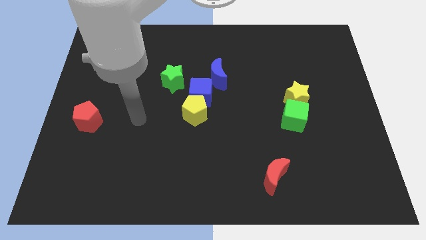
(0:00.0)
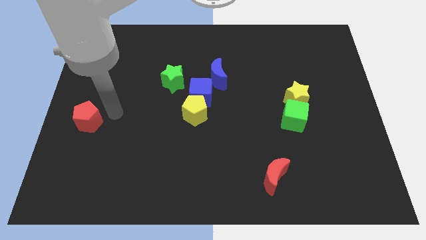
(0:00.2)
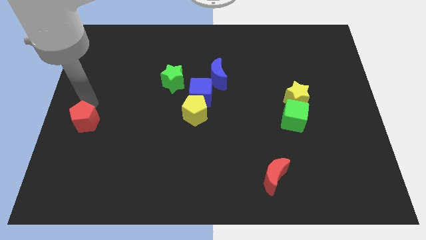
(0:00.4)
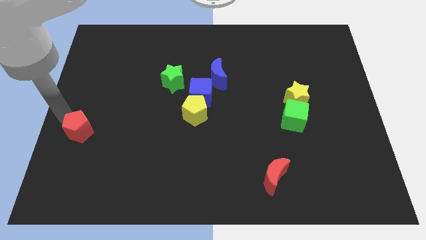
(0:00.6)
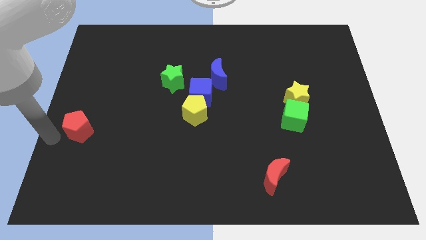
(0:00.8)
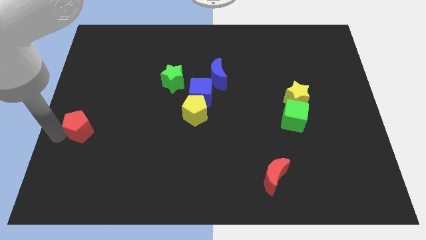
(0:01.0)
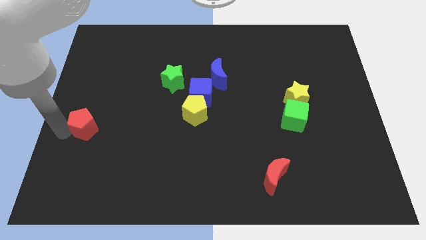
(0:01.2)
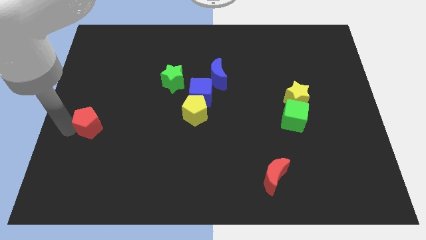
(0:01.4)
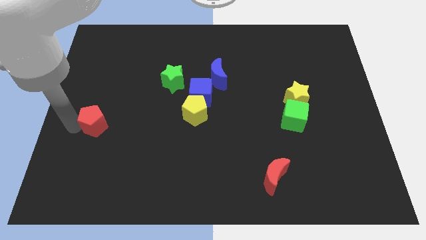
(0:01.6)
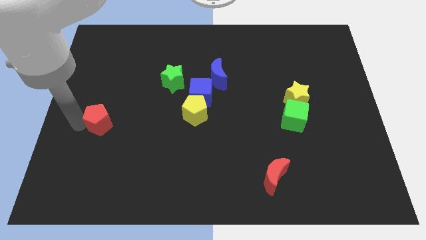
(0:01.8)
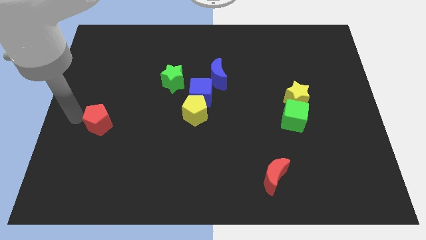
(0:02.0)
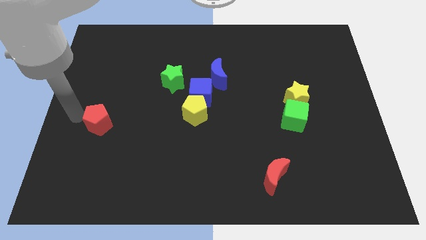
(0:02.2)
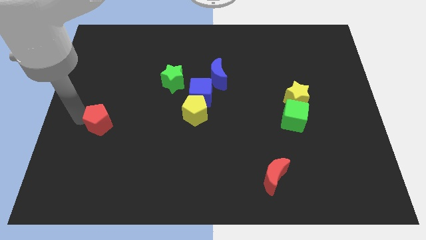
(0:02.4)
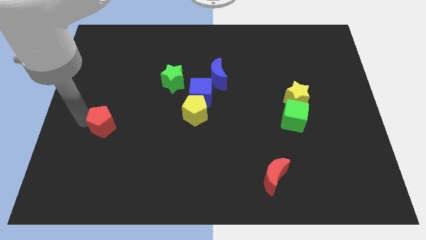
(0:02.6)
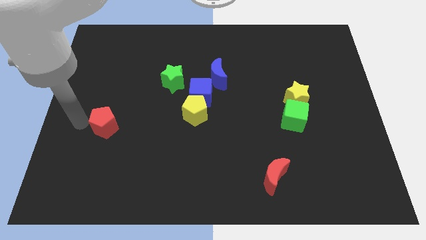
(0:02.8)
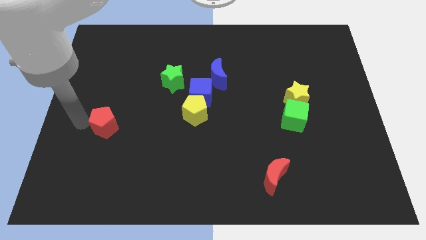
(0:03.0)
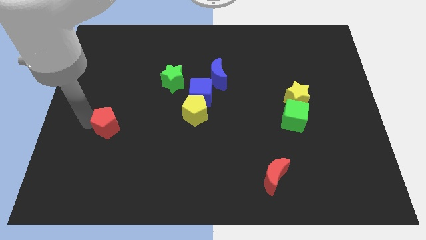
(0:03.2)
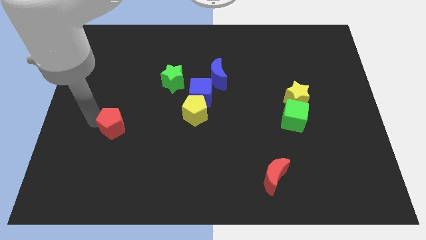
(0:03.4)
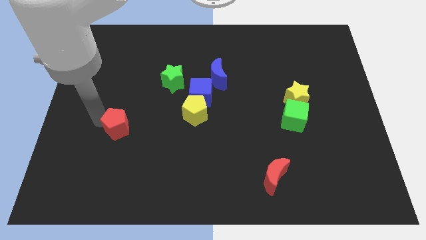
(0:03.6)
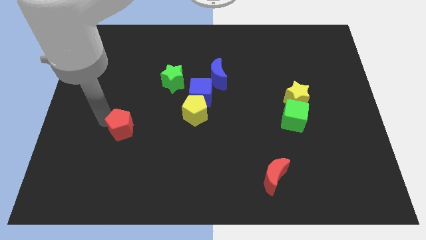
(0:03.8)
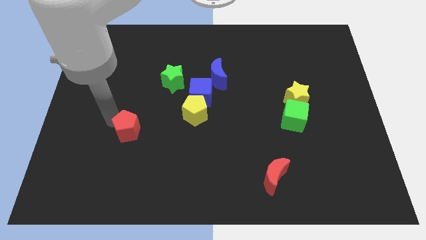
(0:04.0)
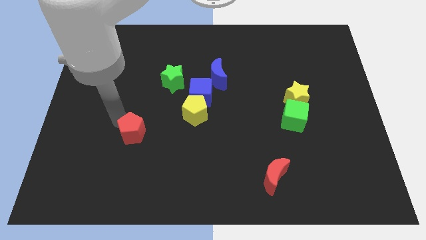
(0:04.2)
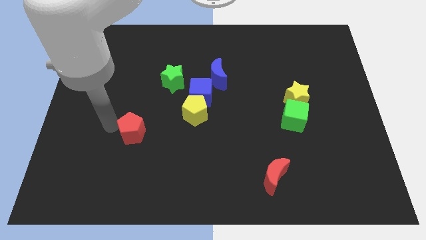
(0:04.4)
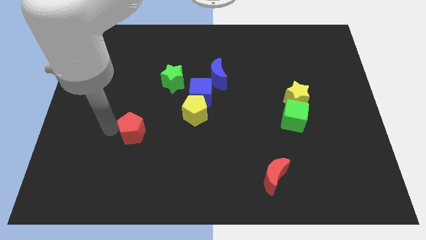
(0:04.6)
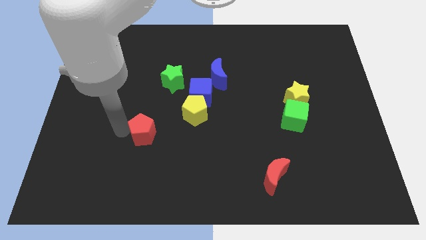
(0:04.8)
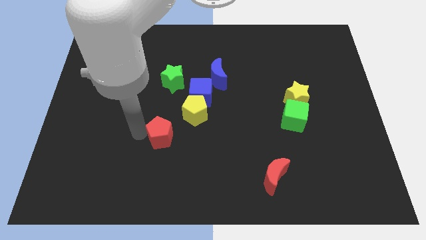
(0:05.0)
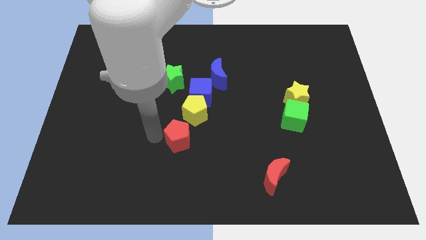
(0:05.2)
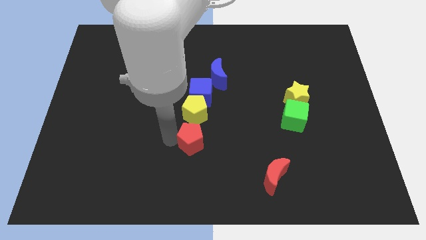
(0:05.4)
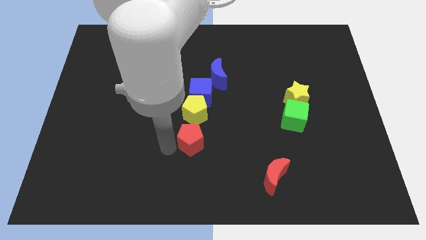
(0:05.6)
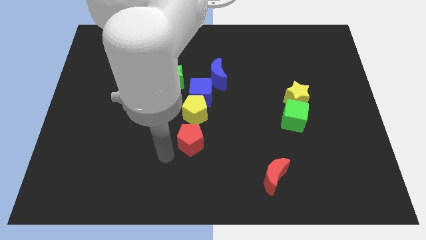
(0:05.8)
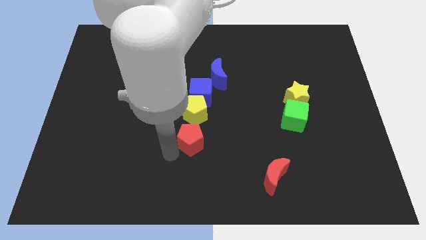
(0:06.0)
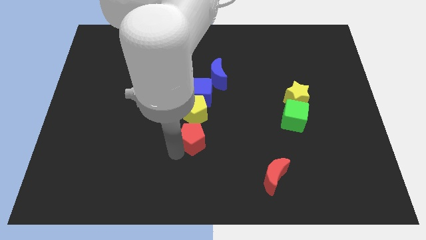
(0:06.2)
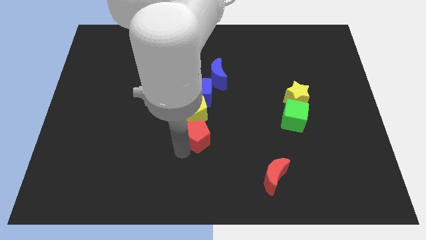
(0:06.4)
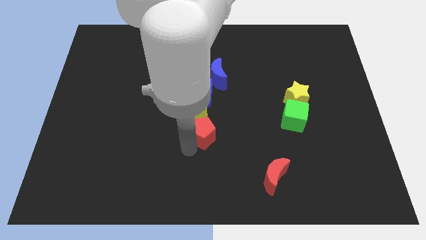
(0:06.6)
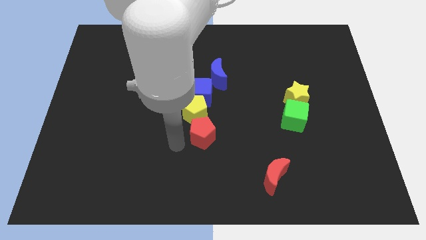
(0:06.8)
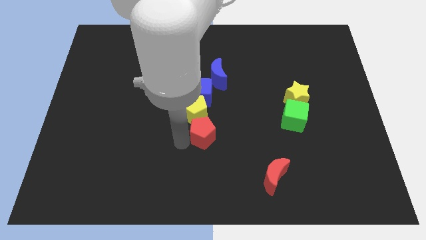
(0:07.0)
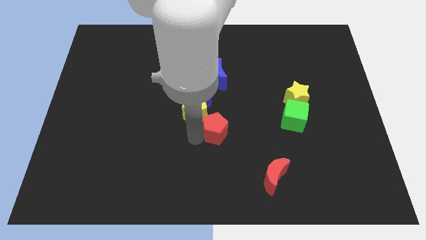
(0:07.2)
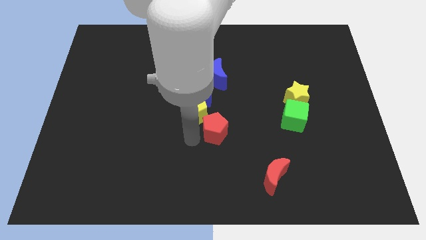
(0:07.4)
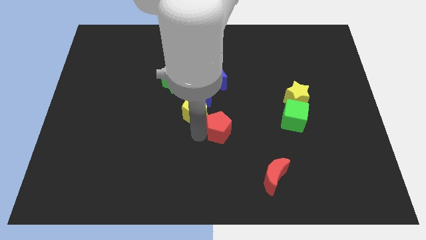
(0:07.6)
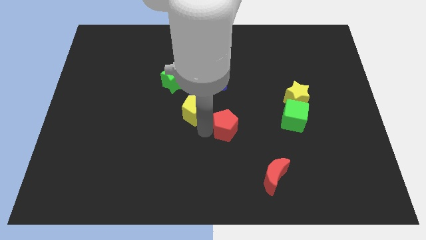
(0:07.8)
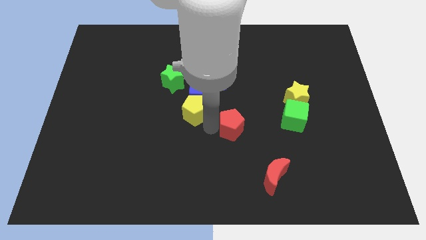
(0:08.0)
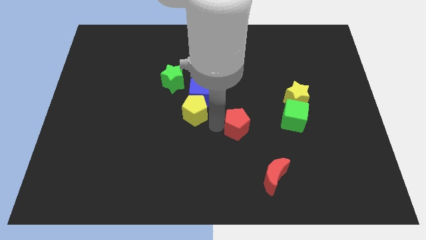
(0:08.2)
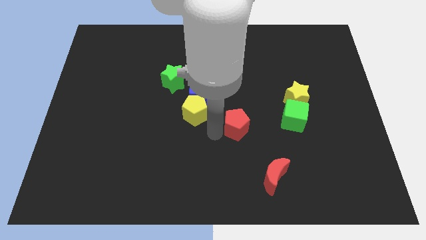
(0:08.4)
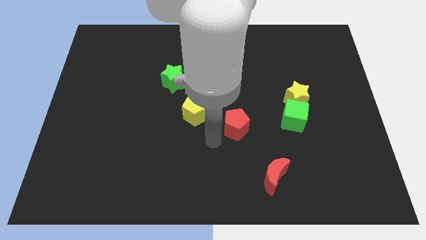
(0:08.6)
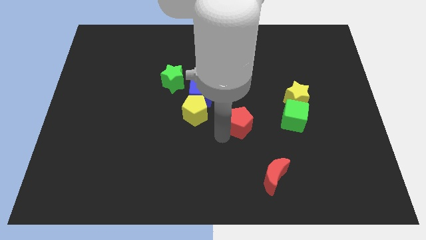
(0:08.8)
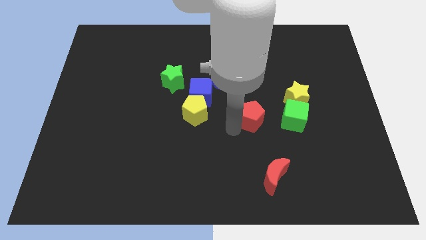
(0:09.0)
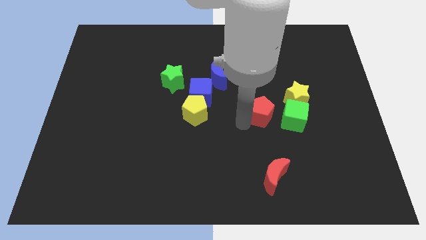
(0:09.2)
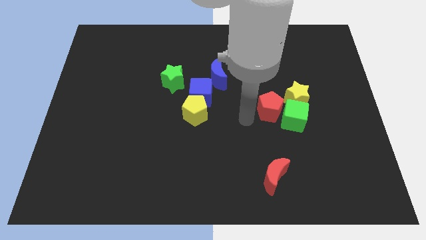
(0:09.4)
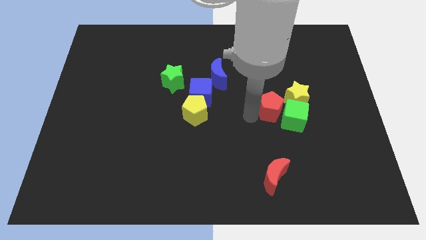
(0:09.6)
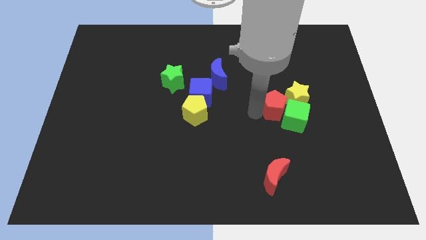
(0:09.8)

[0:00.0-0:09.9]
move the red pentagon towards the yellow star

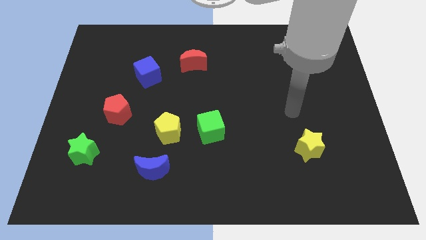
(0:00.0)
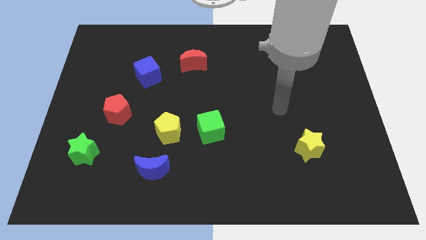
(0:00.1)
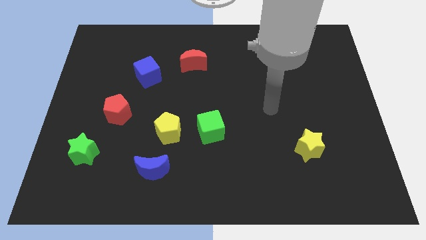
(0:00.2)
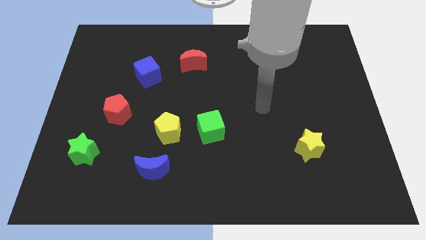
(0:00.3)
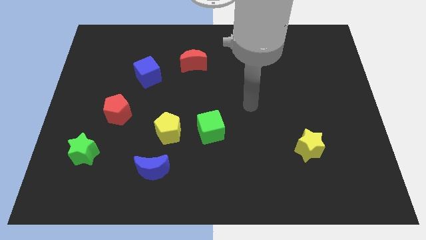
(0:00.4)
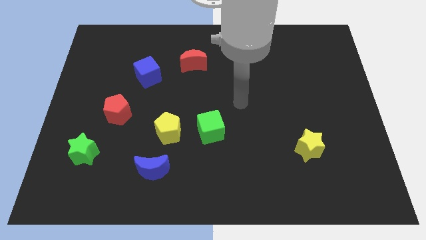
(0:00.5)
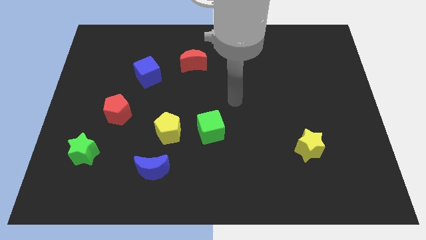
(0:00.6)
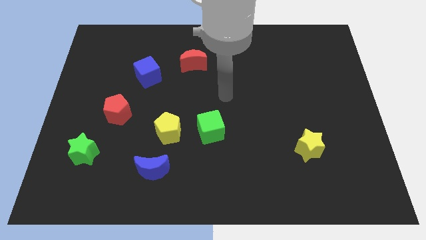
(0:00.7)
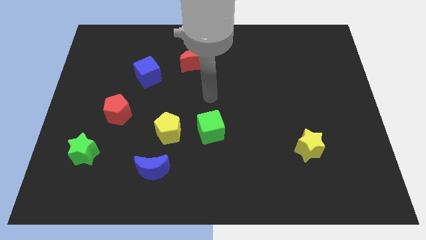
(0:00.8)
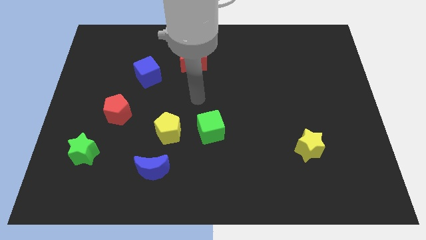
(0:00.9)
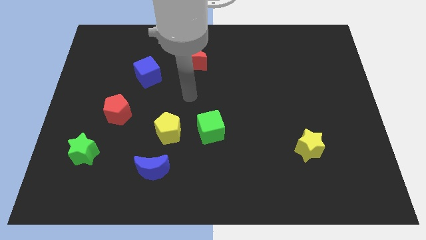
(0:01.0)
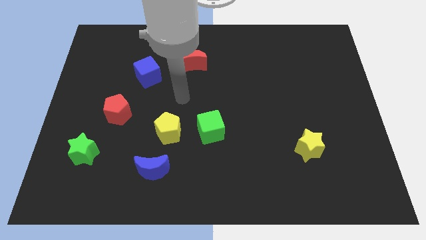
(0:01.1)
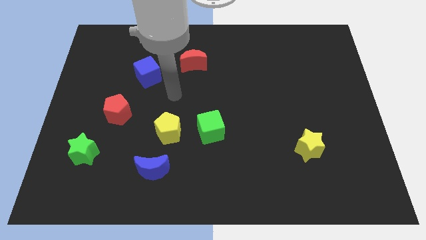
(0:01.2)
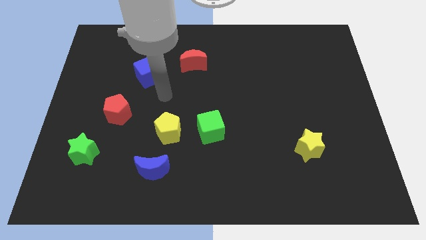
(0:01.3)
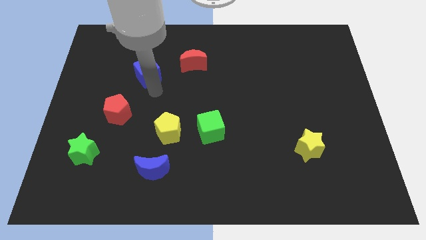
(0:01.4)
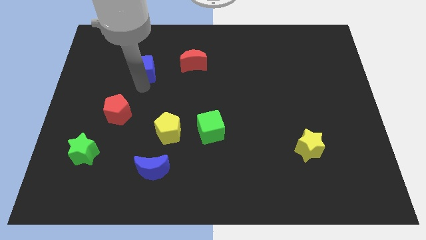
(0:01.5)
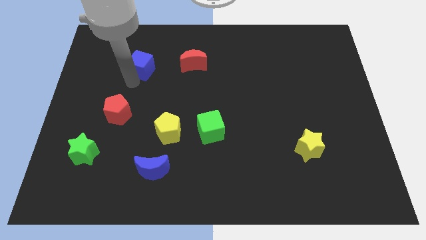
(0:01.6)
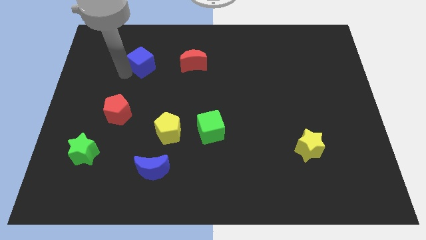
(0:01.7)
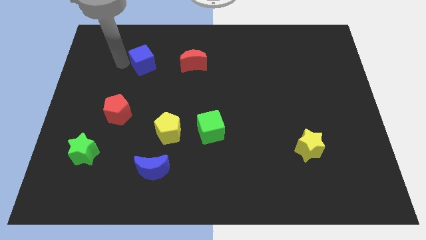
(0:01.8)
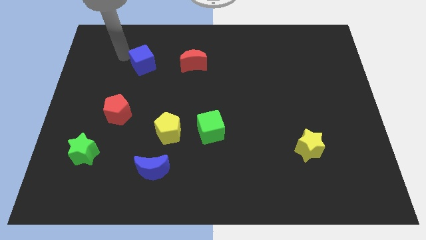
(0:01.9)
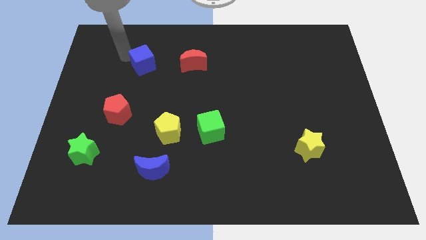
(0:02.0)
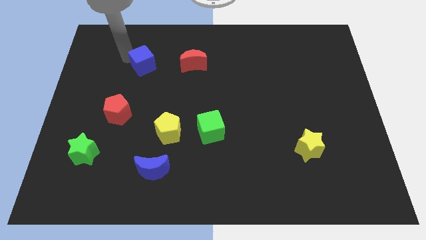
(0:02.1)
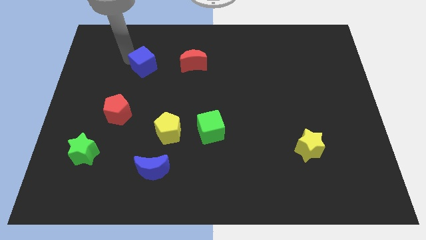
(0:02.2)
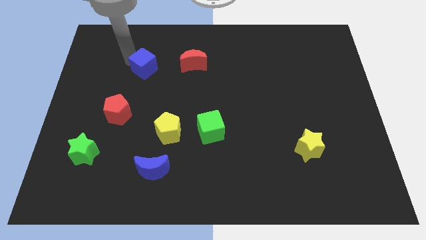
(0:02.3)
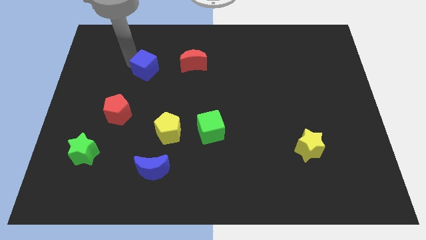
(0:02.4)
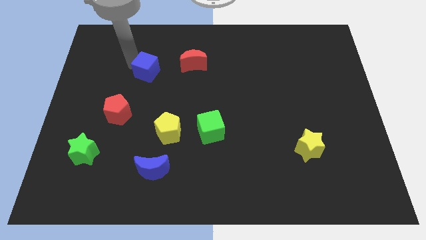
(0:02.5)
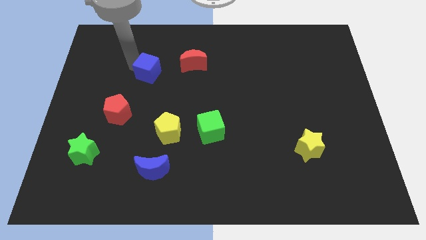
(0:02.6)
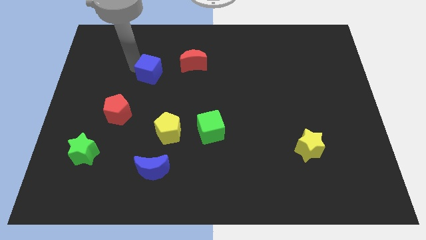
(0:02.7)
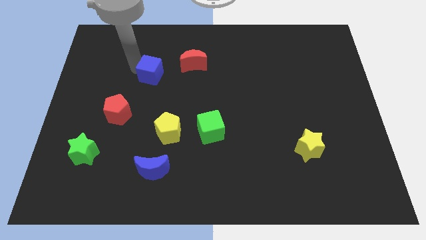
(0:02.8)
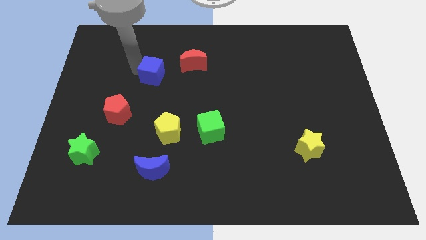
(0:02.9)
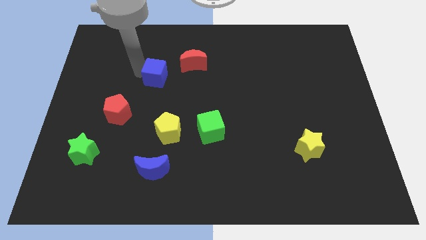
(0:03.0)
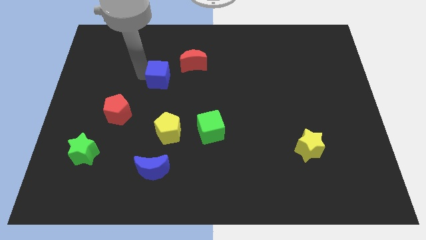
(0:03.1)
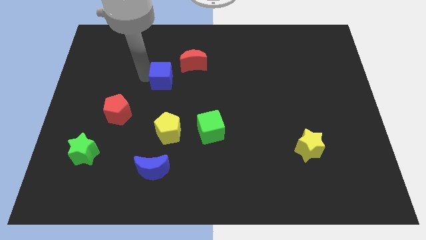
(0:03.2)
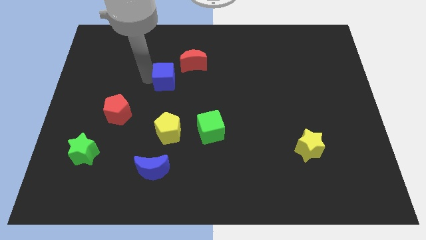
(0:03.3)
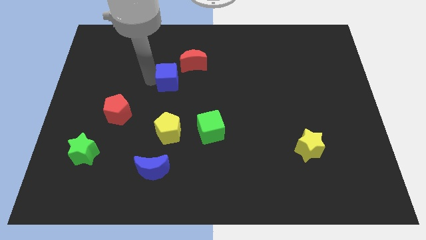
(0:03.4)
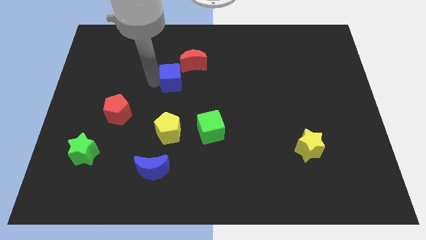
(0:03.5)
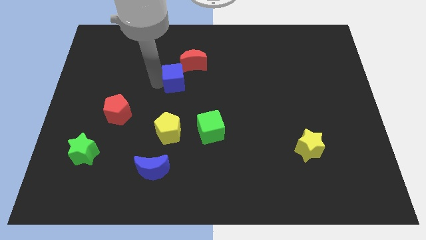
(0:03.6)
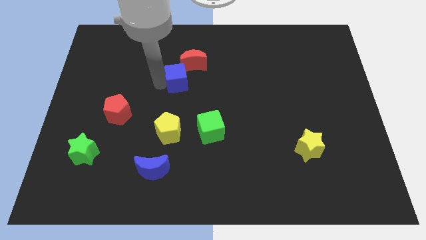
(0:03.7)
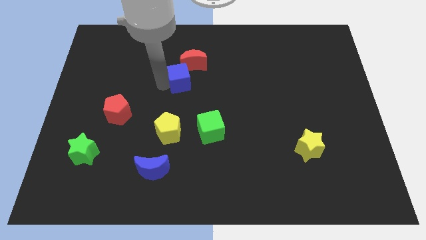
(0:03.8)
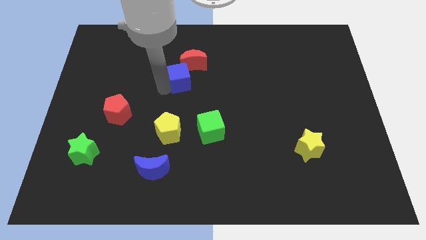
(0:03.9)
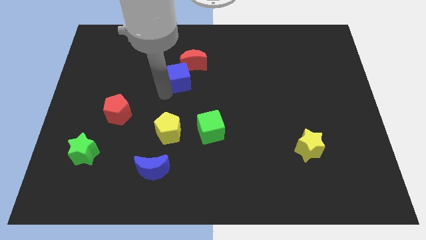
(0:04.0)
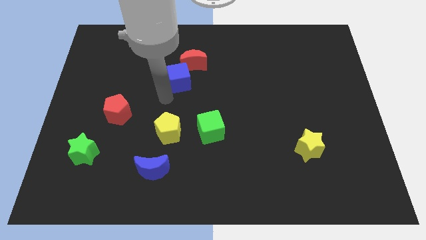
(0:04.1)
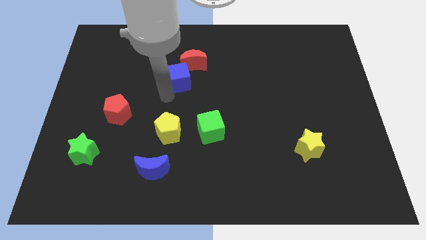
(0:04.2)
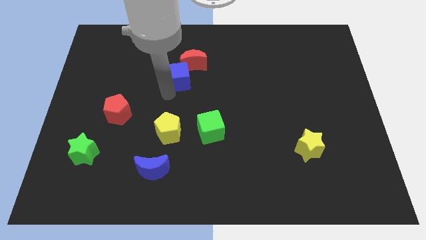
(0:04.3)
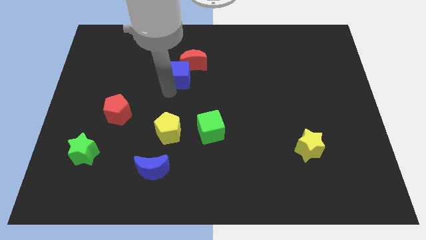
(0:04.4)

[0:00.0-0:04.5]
move the blue cube close to the red moon
